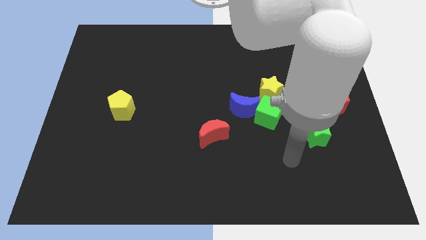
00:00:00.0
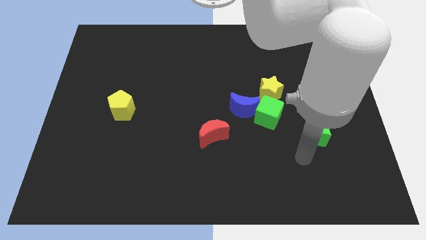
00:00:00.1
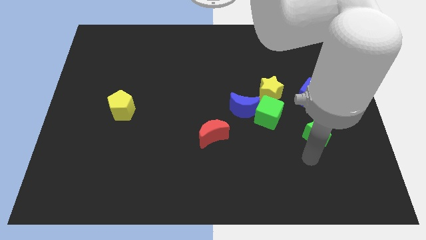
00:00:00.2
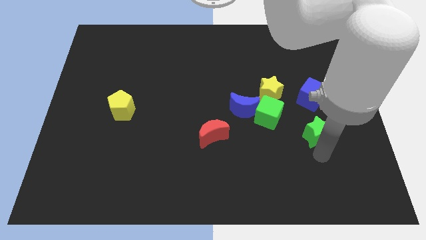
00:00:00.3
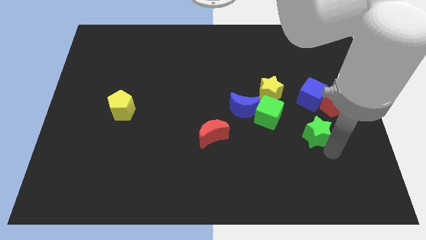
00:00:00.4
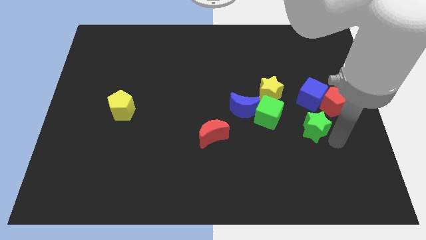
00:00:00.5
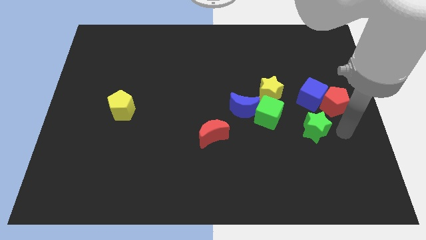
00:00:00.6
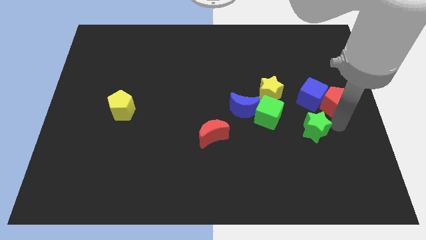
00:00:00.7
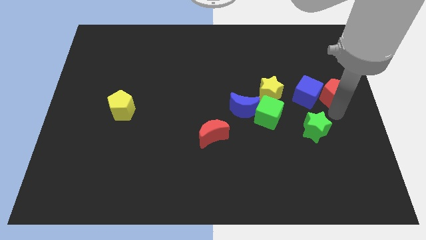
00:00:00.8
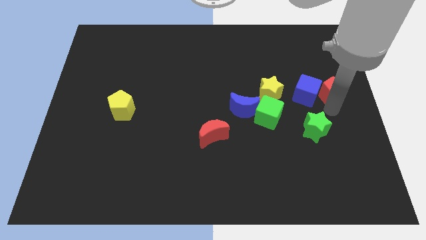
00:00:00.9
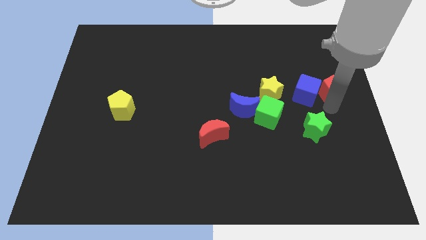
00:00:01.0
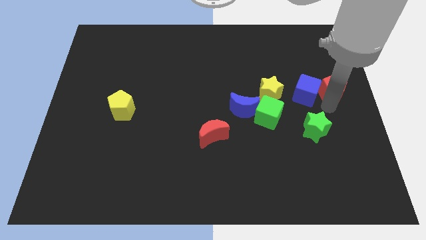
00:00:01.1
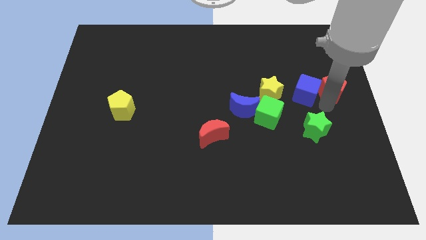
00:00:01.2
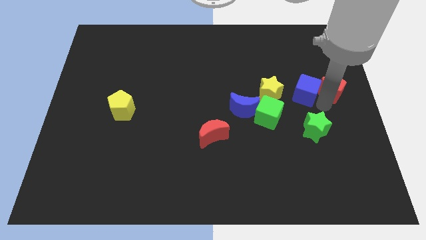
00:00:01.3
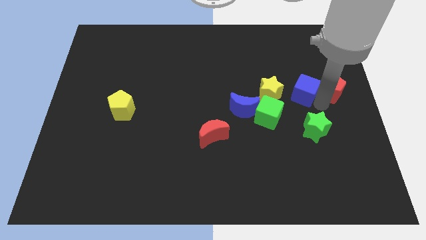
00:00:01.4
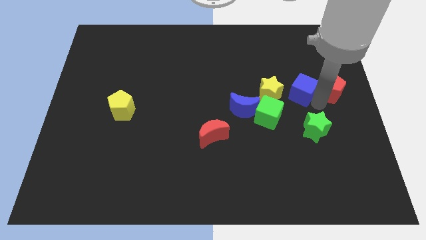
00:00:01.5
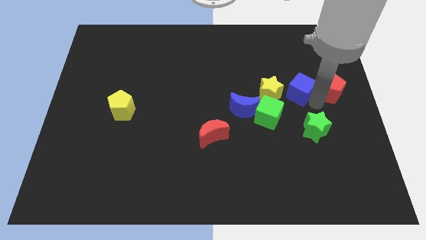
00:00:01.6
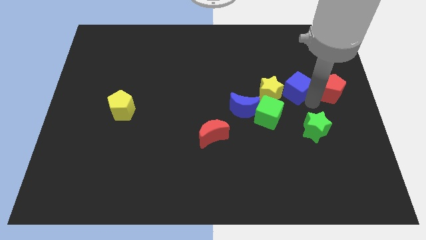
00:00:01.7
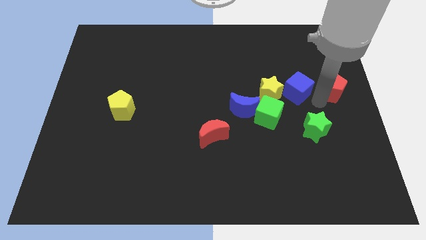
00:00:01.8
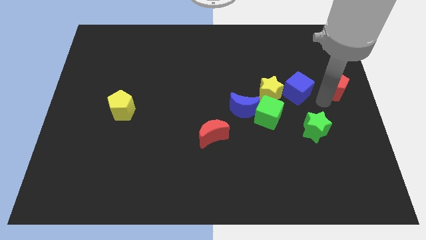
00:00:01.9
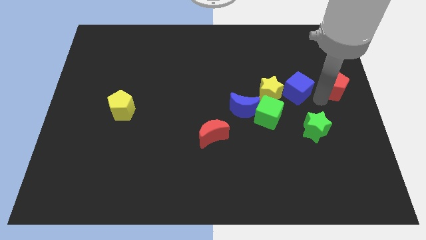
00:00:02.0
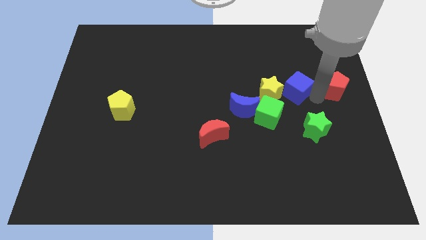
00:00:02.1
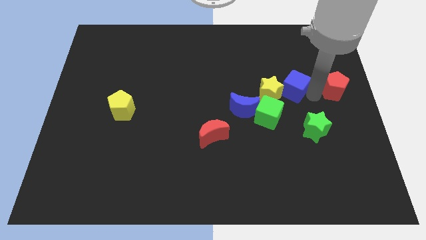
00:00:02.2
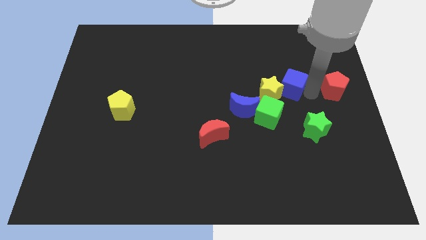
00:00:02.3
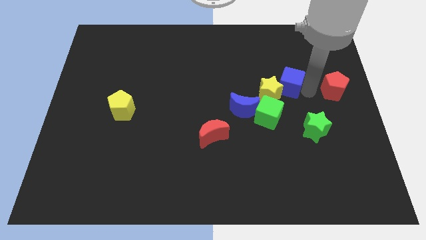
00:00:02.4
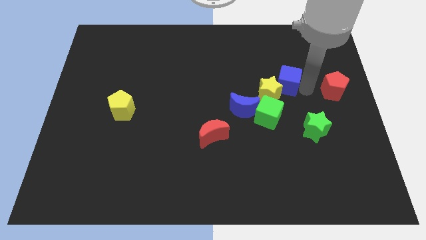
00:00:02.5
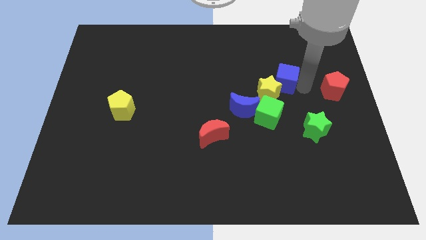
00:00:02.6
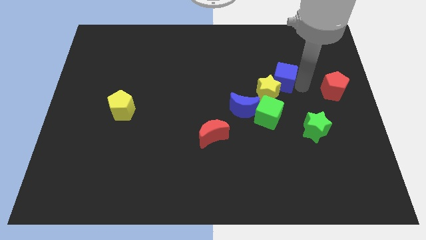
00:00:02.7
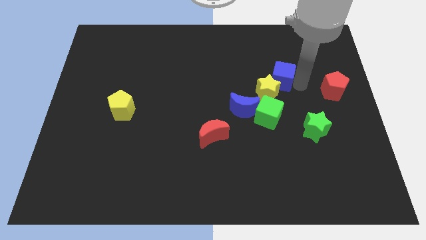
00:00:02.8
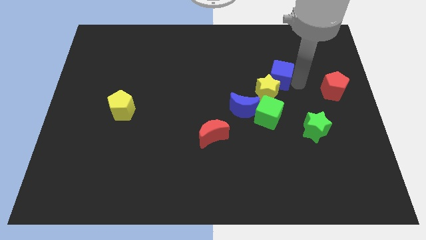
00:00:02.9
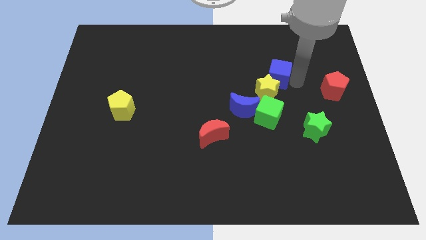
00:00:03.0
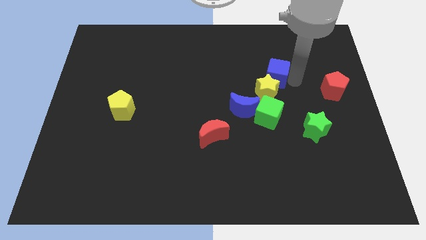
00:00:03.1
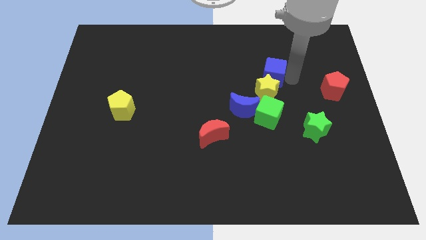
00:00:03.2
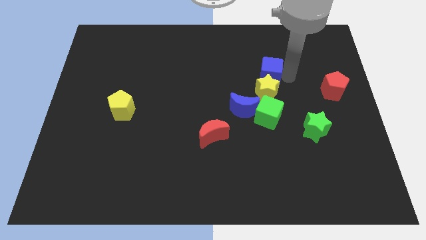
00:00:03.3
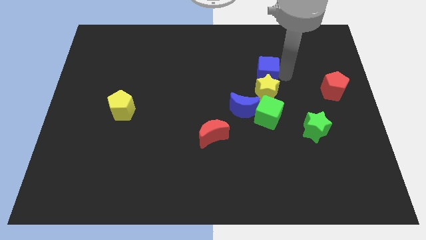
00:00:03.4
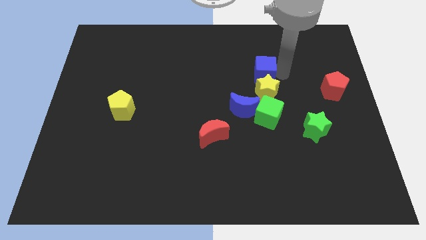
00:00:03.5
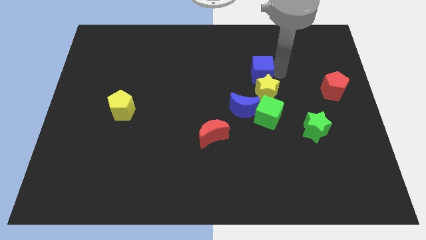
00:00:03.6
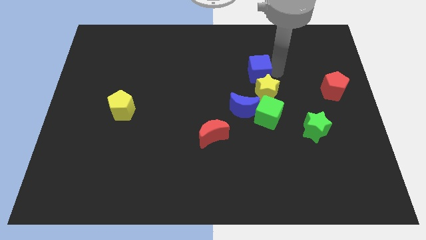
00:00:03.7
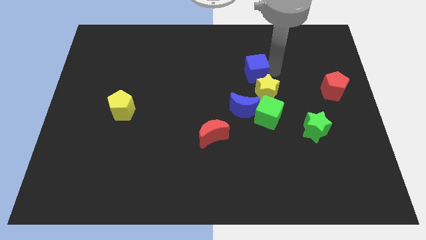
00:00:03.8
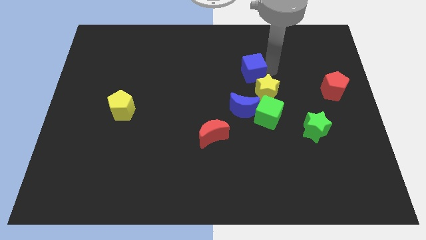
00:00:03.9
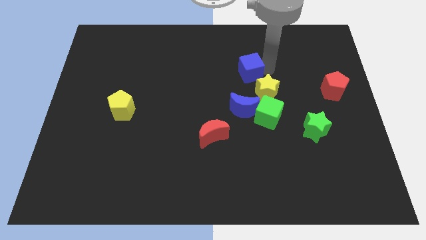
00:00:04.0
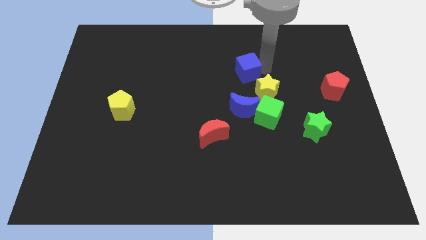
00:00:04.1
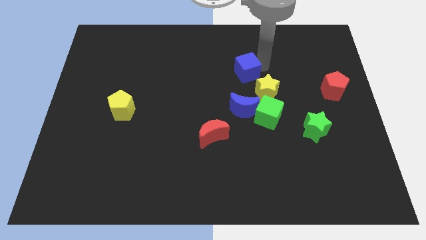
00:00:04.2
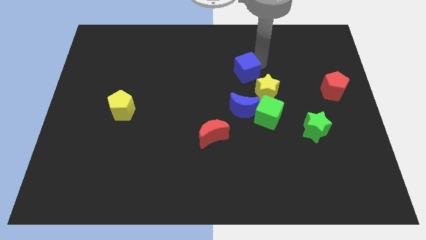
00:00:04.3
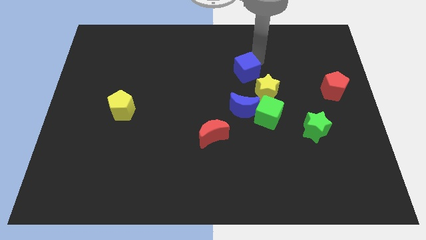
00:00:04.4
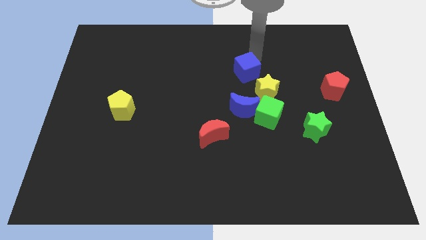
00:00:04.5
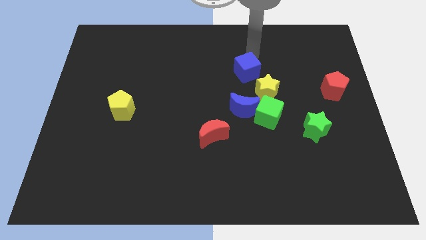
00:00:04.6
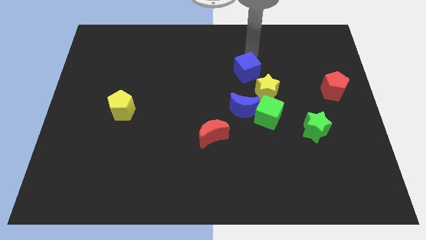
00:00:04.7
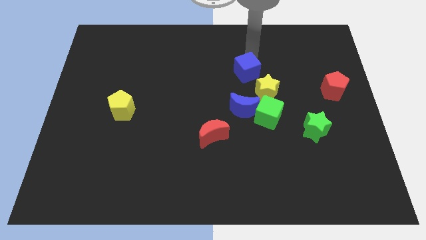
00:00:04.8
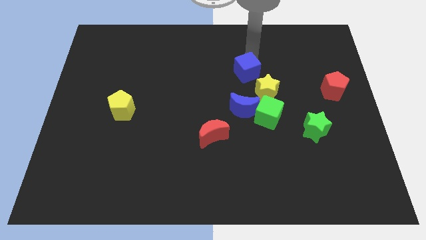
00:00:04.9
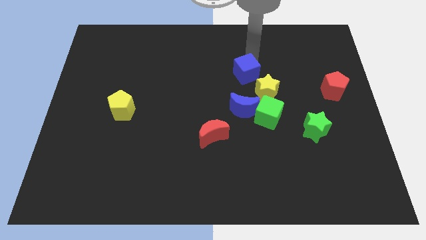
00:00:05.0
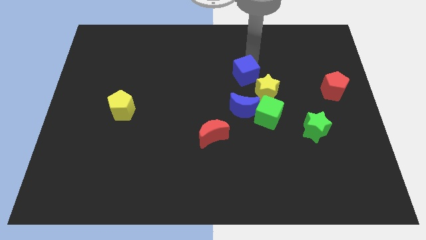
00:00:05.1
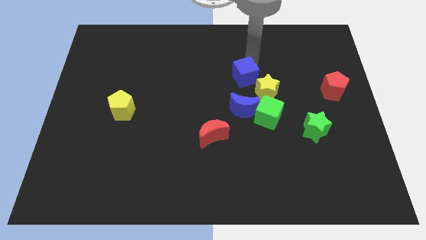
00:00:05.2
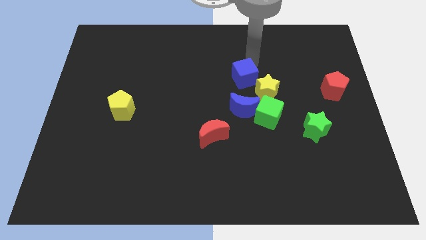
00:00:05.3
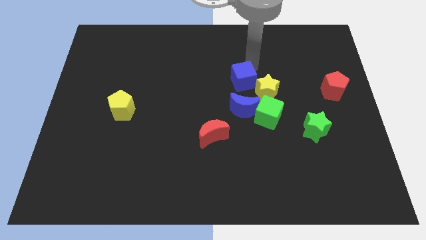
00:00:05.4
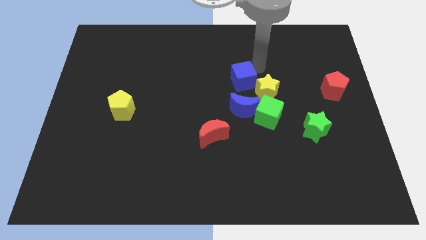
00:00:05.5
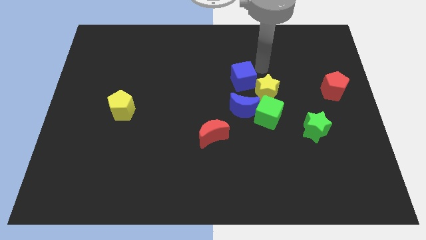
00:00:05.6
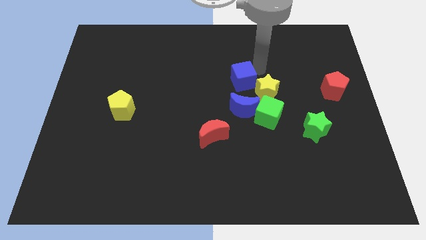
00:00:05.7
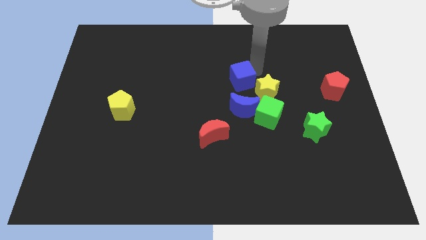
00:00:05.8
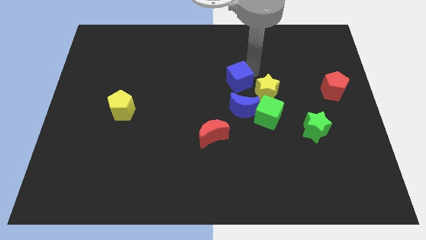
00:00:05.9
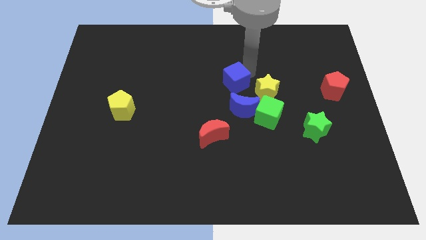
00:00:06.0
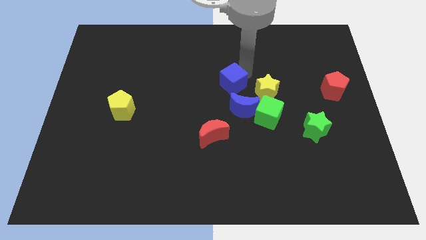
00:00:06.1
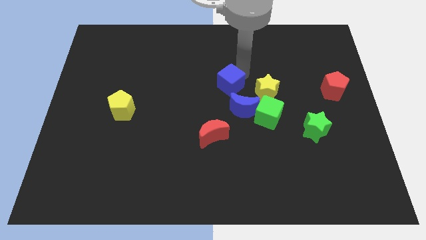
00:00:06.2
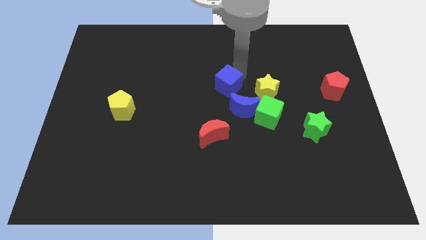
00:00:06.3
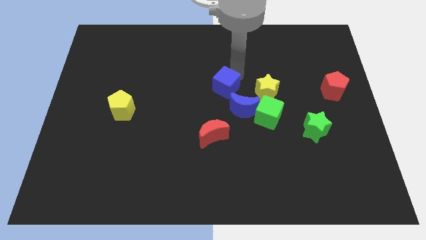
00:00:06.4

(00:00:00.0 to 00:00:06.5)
put the blue cube above the red moon
